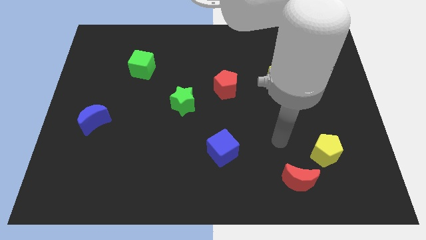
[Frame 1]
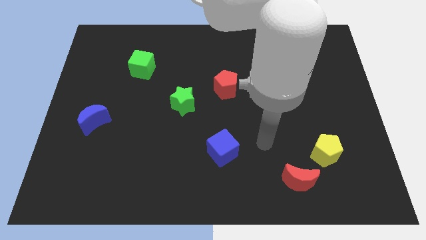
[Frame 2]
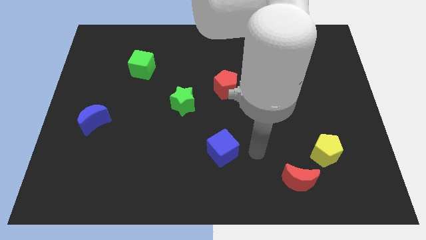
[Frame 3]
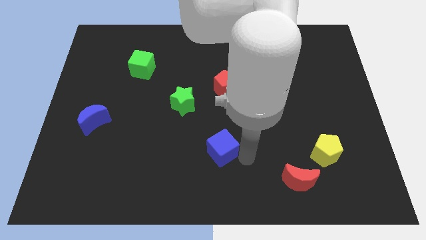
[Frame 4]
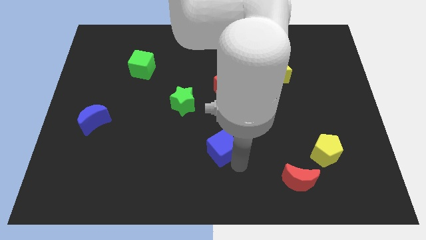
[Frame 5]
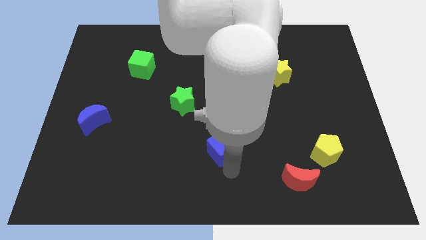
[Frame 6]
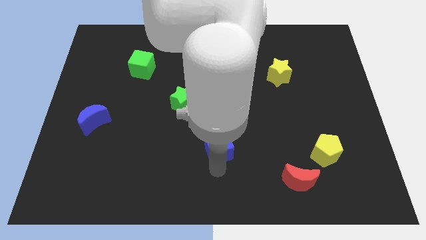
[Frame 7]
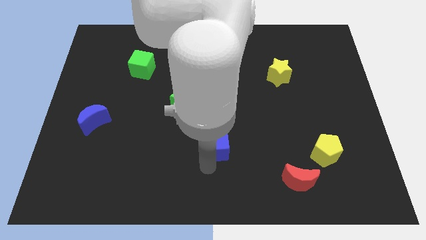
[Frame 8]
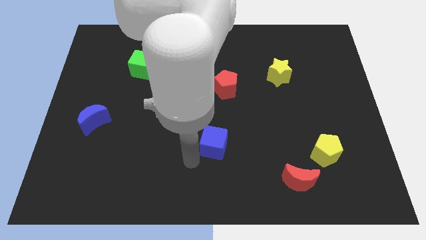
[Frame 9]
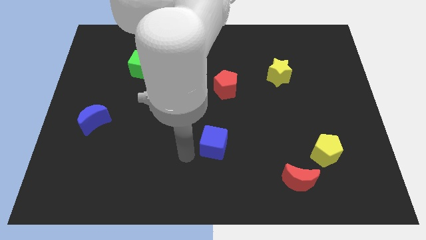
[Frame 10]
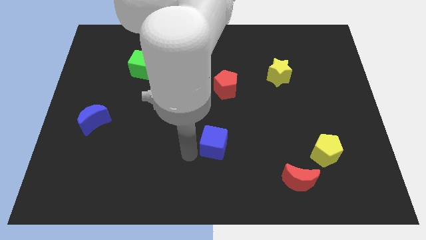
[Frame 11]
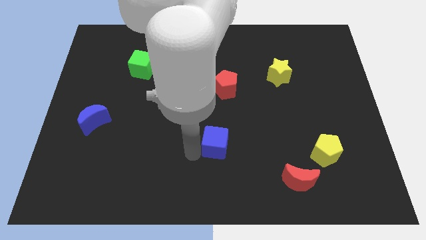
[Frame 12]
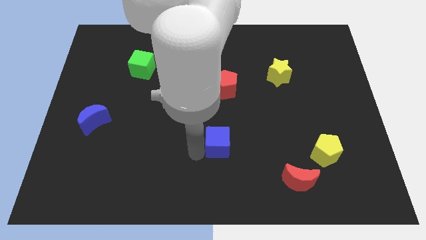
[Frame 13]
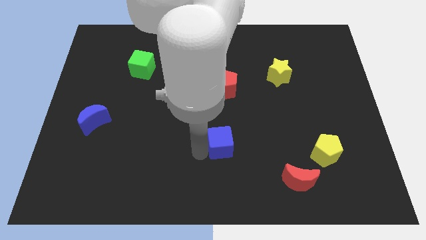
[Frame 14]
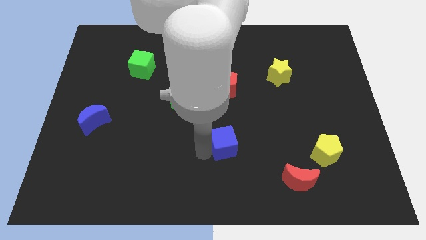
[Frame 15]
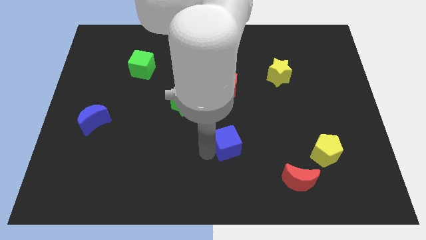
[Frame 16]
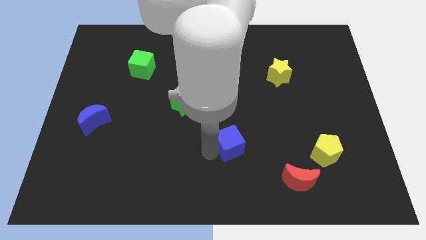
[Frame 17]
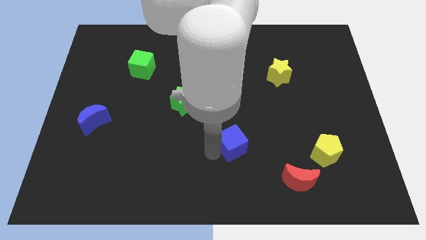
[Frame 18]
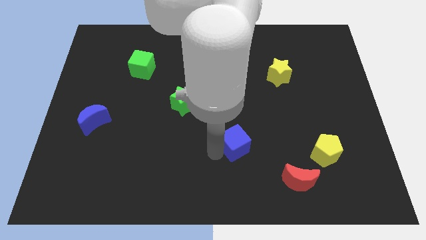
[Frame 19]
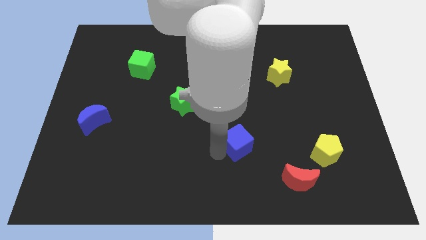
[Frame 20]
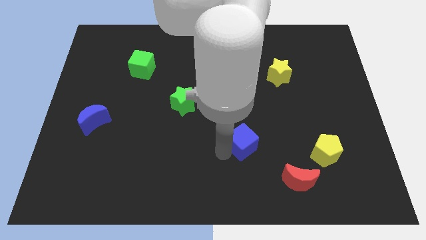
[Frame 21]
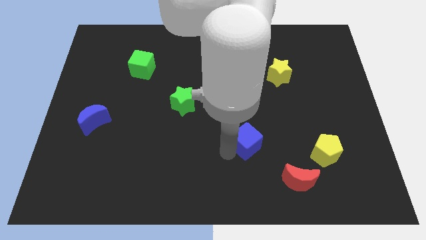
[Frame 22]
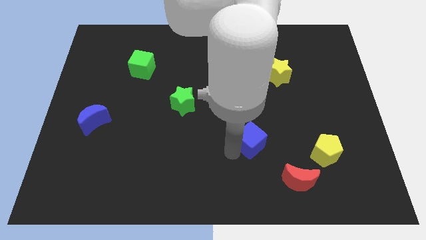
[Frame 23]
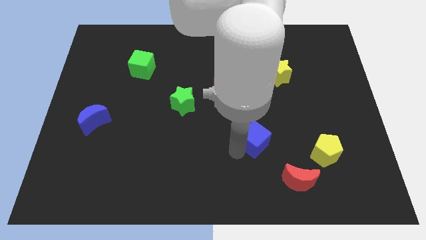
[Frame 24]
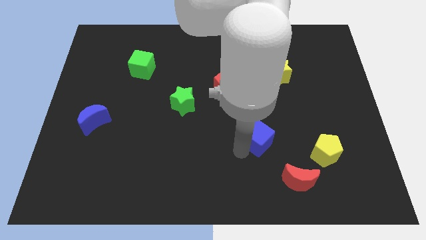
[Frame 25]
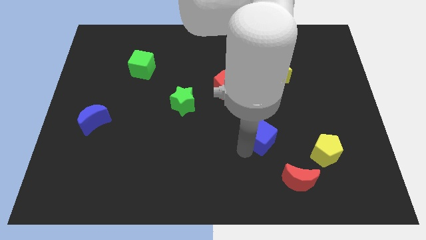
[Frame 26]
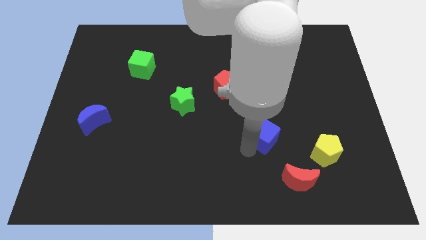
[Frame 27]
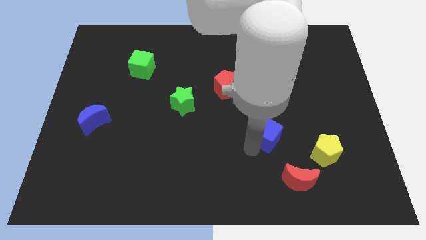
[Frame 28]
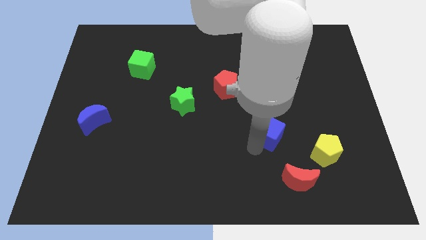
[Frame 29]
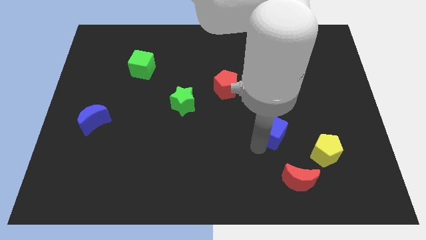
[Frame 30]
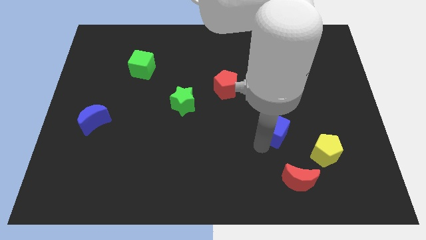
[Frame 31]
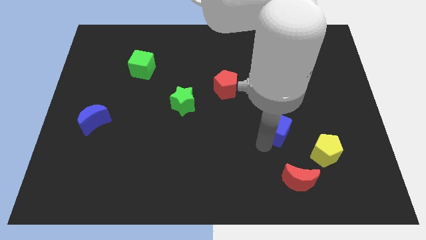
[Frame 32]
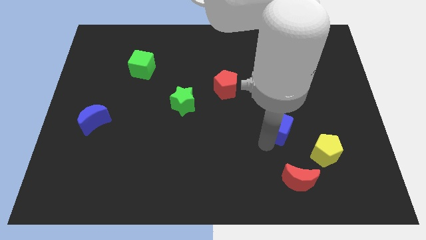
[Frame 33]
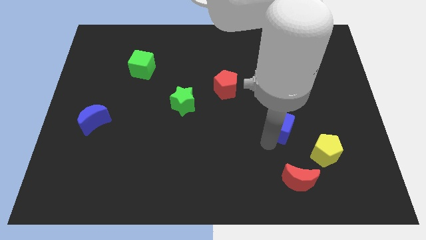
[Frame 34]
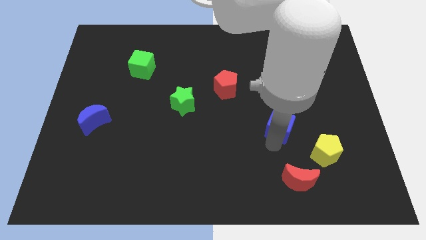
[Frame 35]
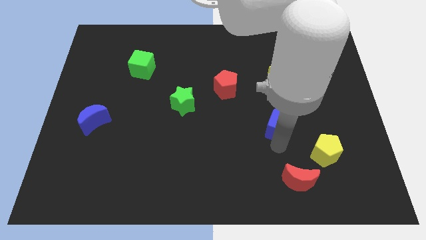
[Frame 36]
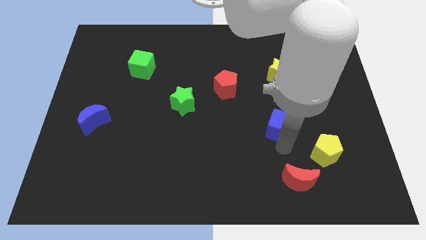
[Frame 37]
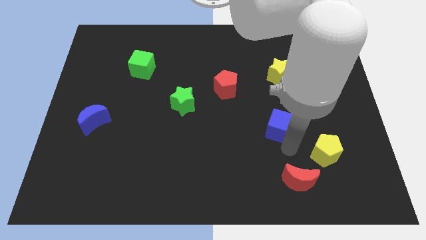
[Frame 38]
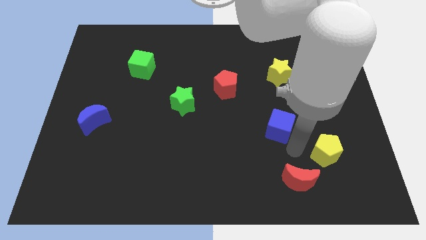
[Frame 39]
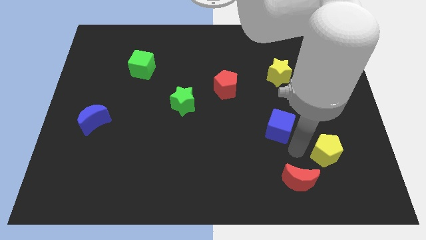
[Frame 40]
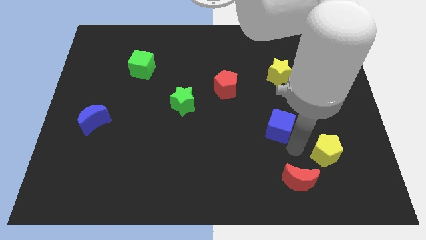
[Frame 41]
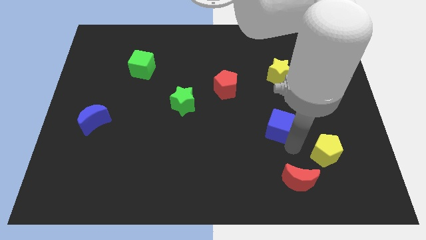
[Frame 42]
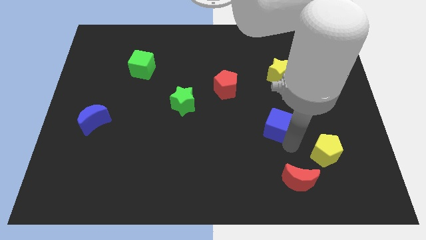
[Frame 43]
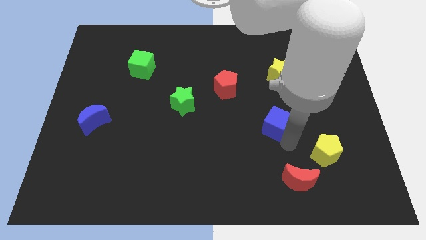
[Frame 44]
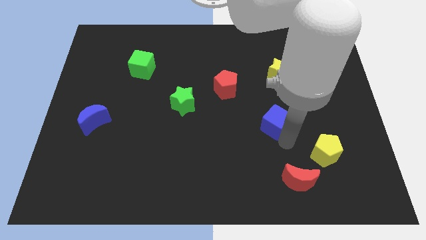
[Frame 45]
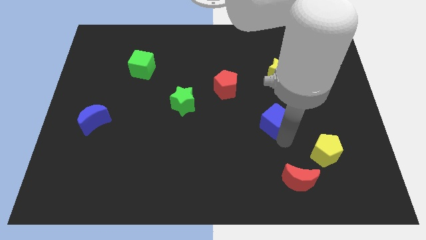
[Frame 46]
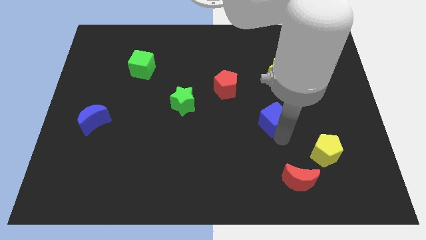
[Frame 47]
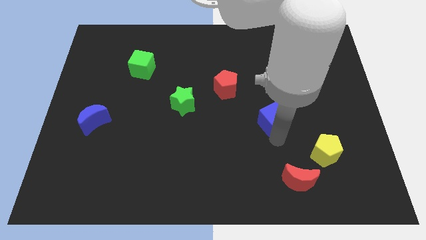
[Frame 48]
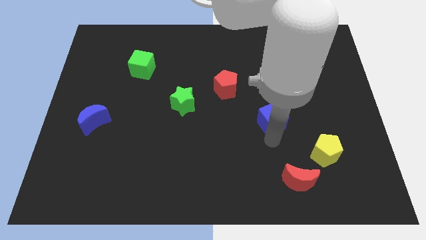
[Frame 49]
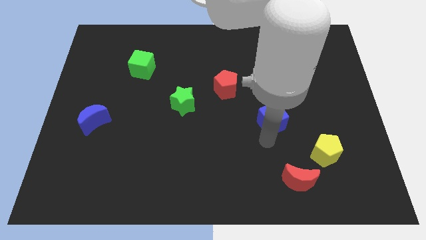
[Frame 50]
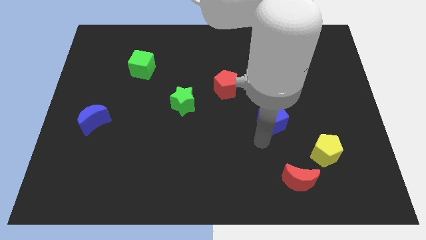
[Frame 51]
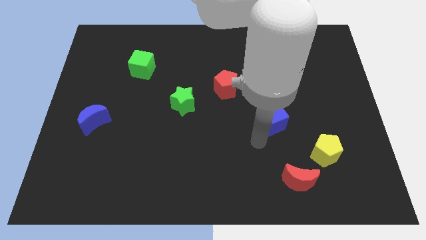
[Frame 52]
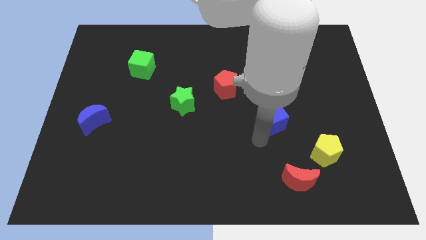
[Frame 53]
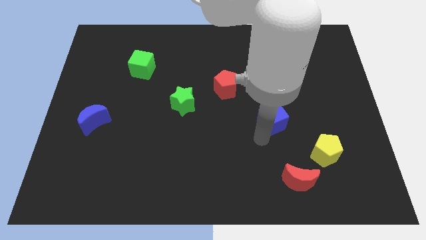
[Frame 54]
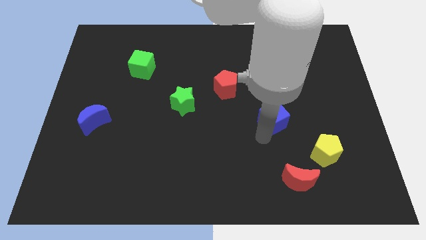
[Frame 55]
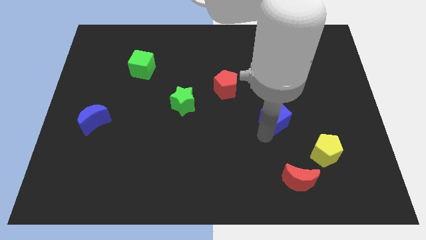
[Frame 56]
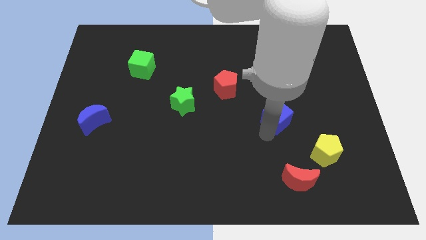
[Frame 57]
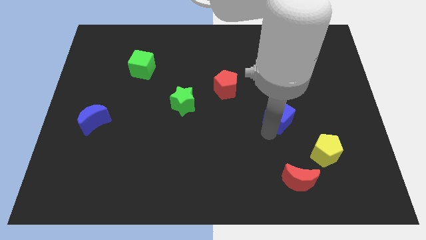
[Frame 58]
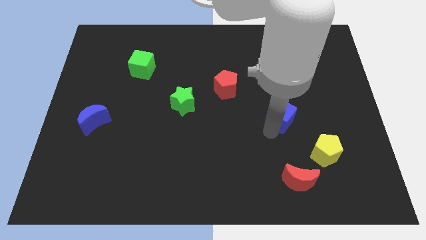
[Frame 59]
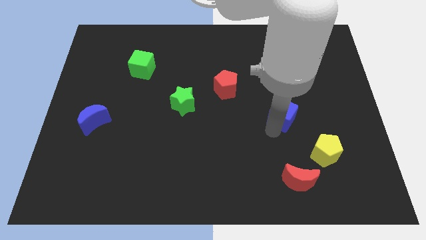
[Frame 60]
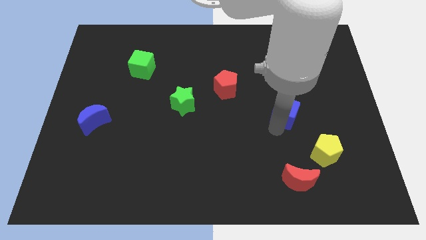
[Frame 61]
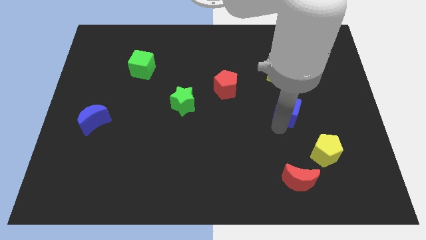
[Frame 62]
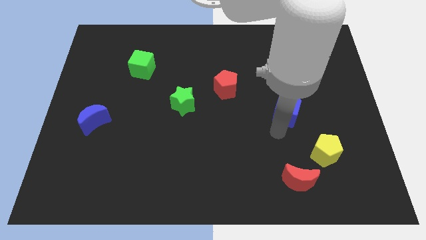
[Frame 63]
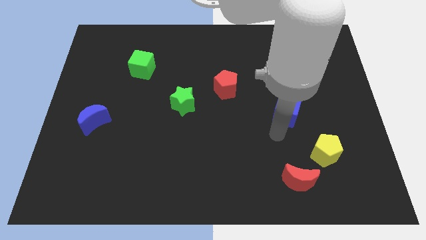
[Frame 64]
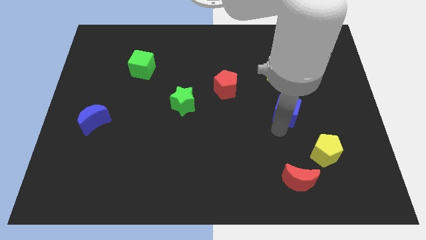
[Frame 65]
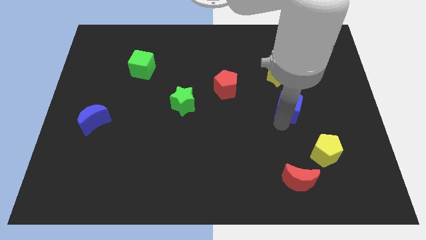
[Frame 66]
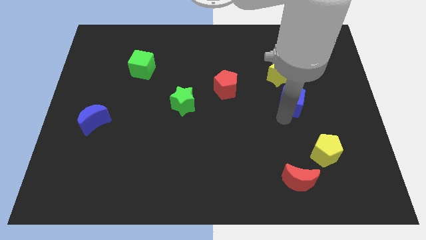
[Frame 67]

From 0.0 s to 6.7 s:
push the blue cube upwards and to the right diagonally

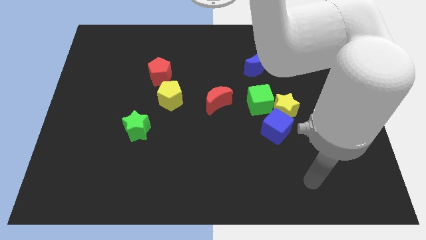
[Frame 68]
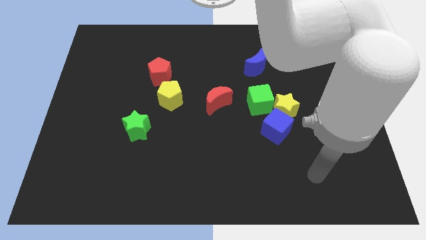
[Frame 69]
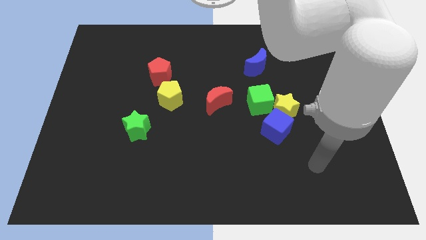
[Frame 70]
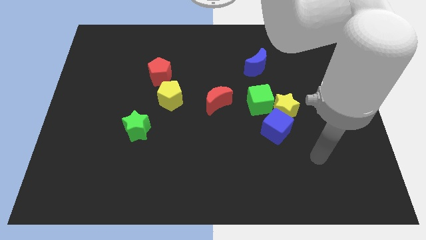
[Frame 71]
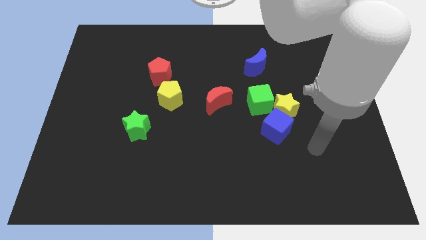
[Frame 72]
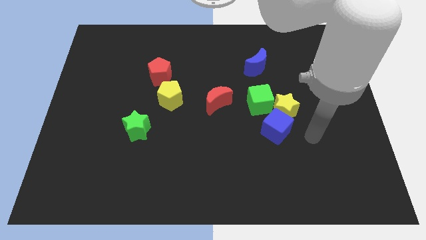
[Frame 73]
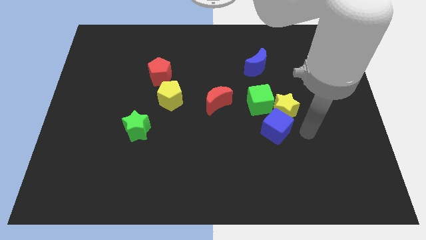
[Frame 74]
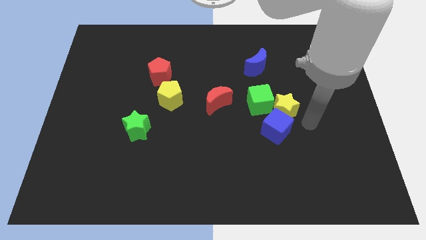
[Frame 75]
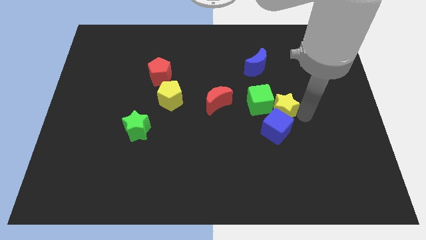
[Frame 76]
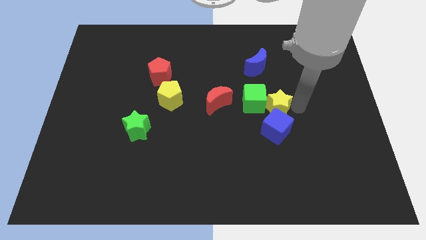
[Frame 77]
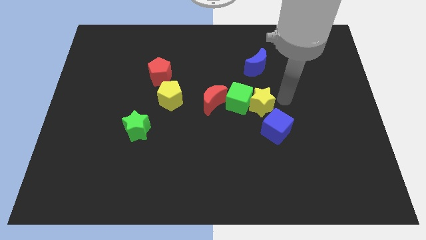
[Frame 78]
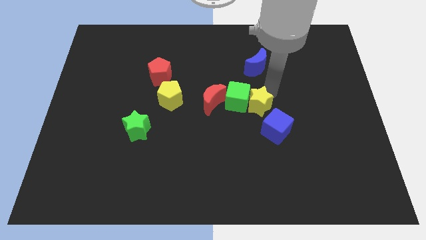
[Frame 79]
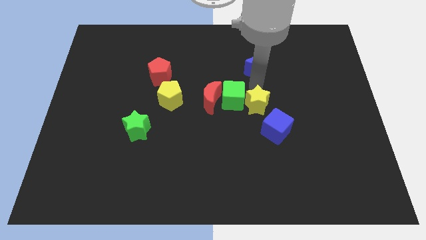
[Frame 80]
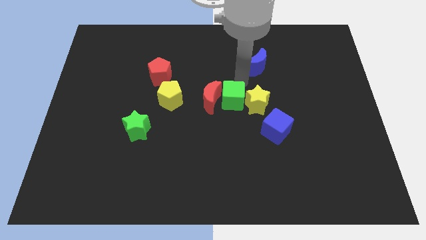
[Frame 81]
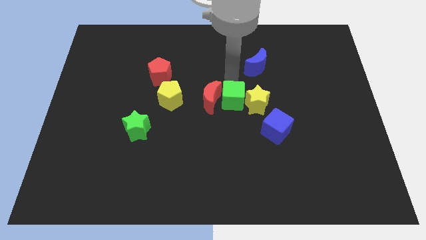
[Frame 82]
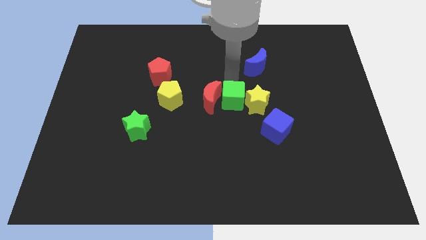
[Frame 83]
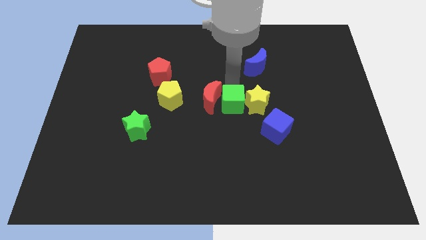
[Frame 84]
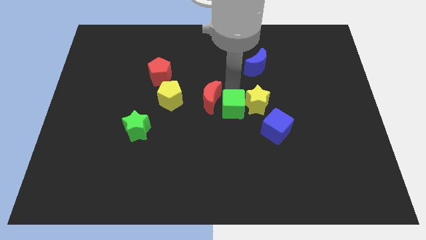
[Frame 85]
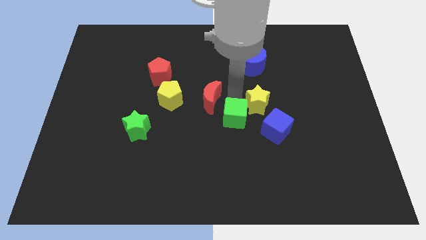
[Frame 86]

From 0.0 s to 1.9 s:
slide the green cube down and to the left diagonally a little bit
